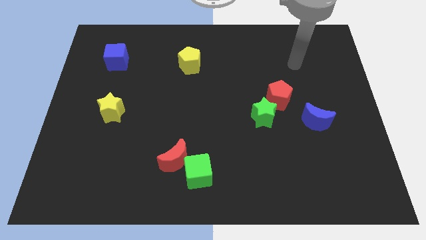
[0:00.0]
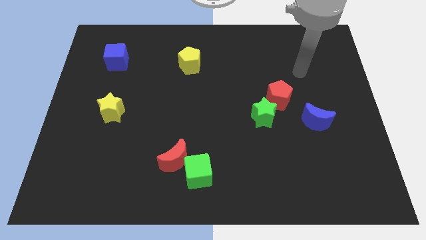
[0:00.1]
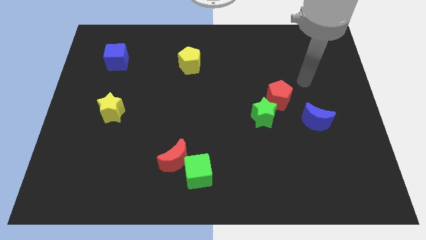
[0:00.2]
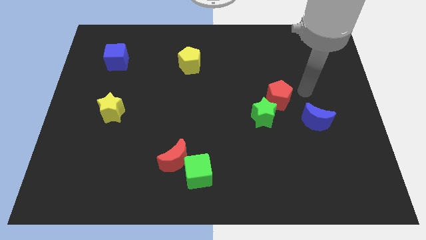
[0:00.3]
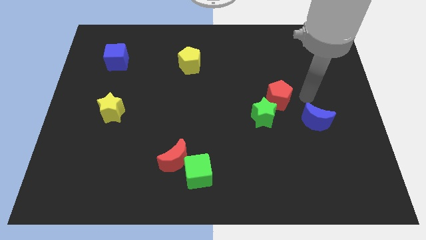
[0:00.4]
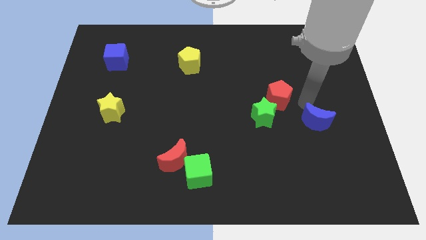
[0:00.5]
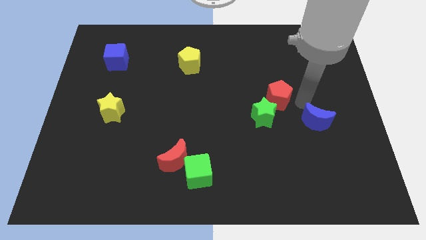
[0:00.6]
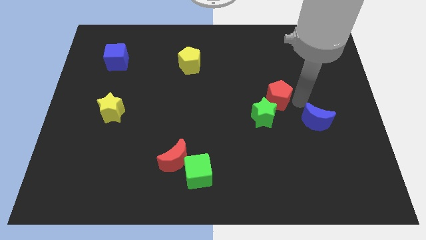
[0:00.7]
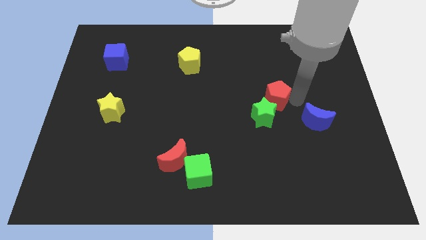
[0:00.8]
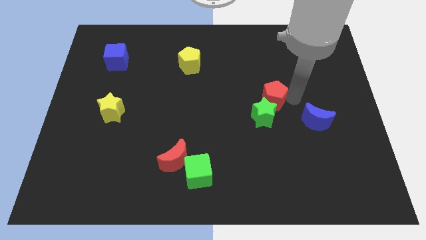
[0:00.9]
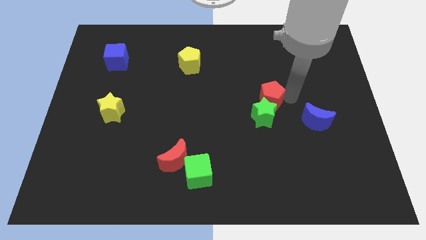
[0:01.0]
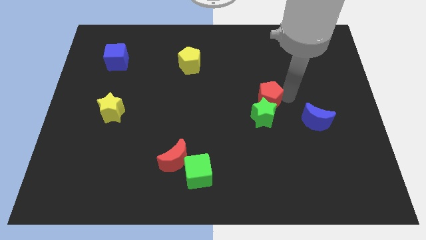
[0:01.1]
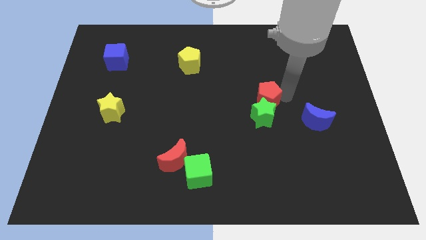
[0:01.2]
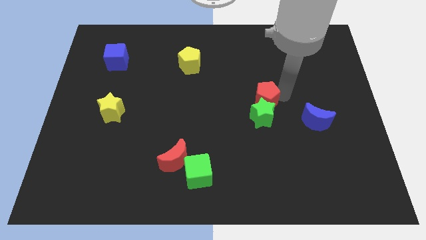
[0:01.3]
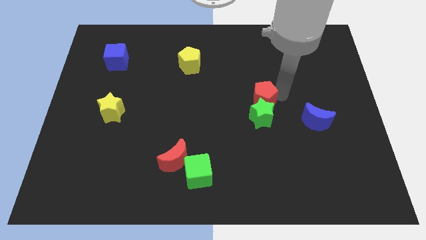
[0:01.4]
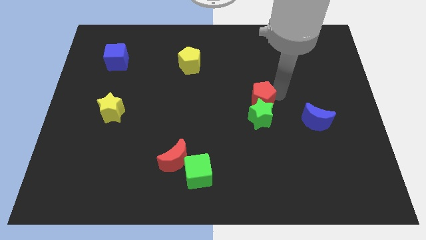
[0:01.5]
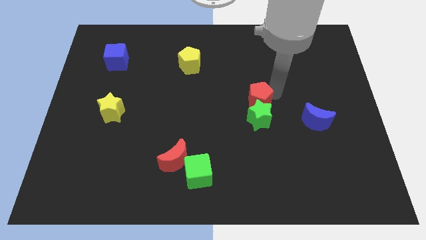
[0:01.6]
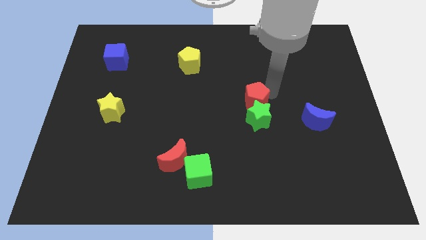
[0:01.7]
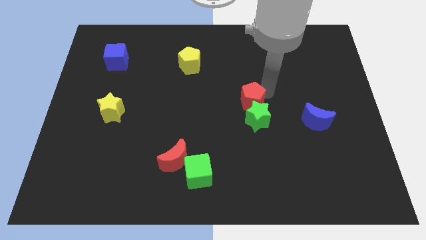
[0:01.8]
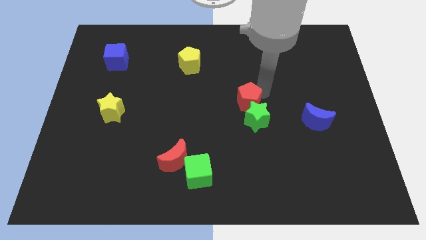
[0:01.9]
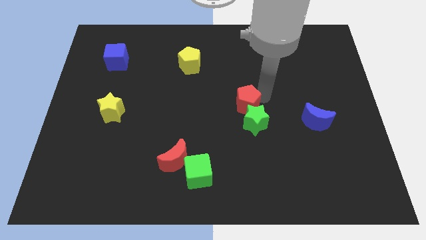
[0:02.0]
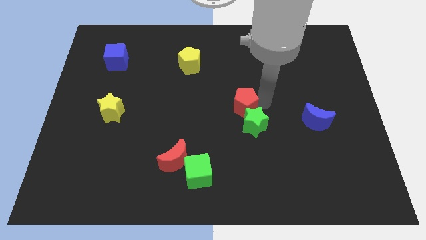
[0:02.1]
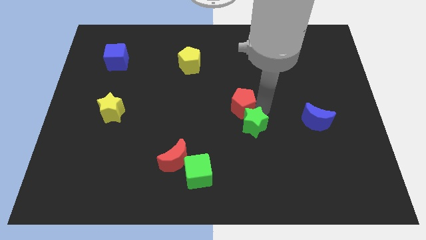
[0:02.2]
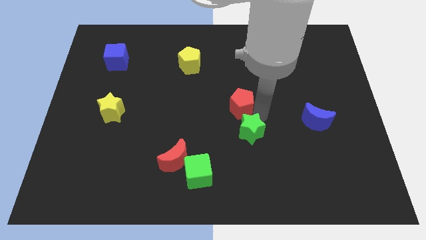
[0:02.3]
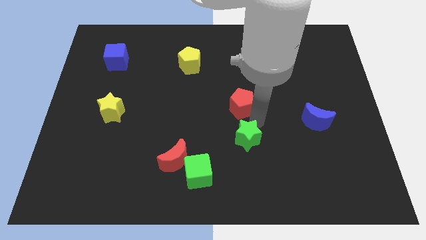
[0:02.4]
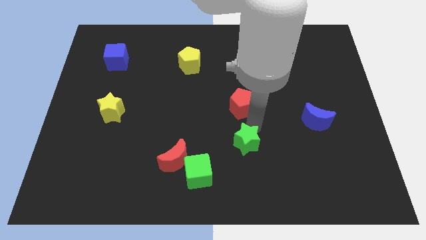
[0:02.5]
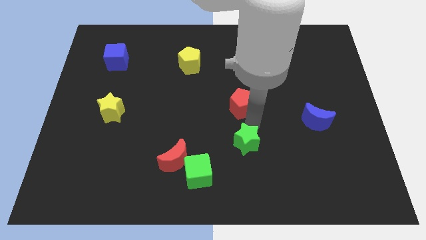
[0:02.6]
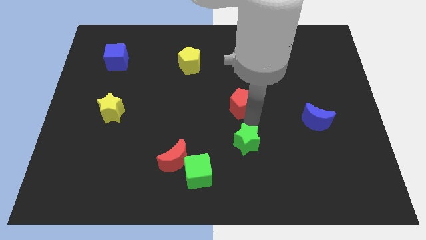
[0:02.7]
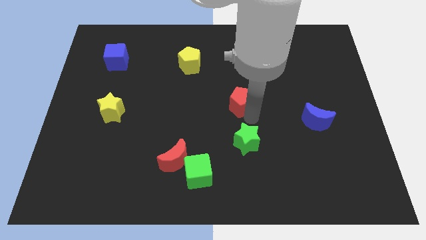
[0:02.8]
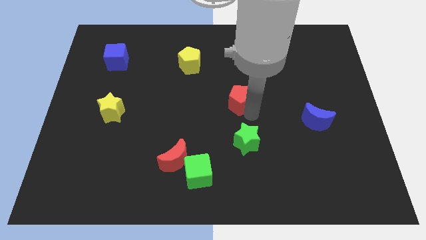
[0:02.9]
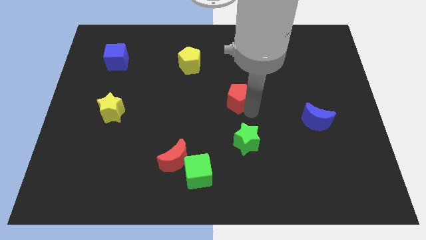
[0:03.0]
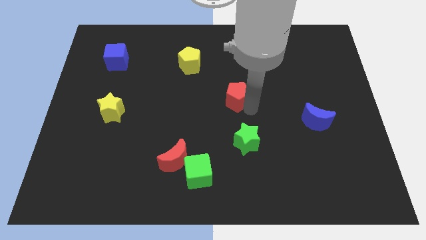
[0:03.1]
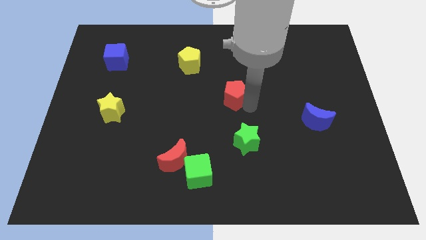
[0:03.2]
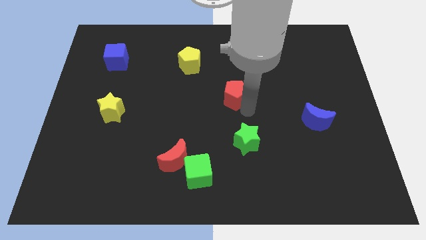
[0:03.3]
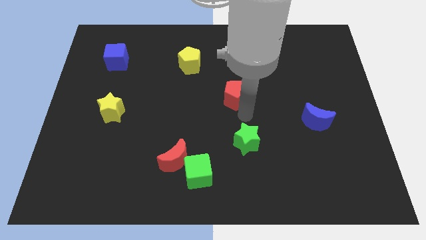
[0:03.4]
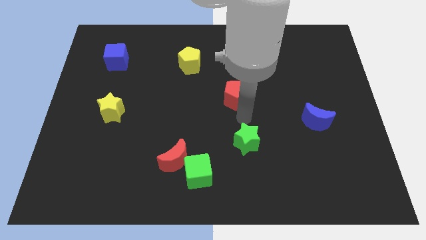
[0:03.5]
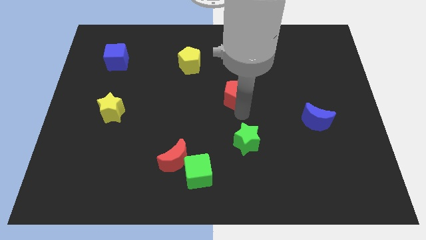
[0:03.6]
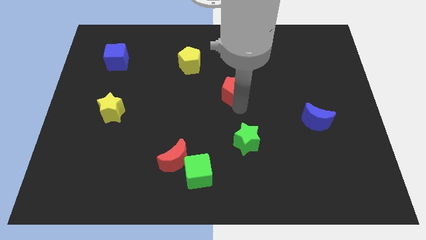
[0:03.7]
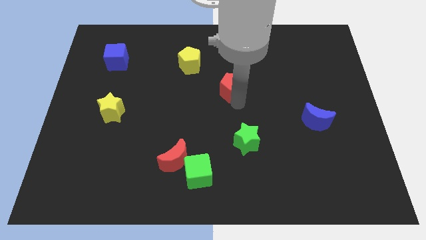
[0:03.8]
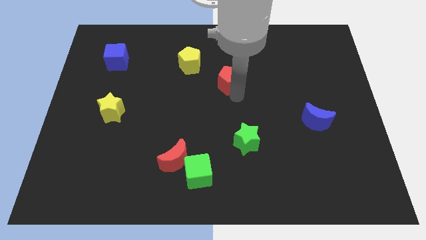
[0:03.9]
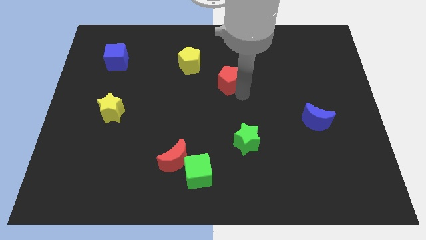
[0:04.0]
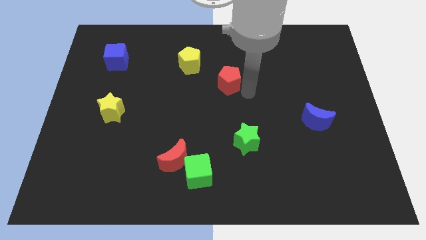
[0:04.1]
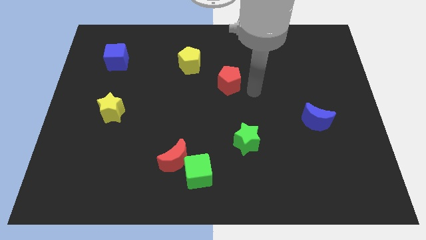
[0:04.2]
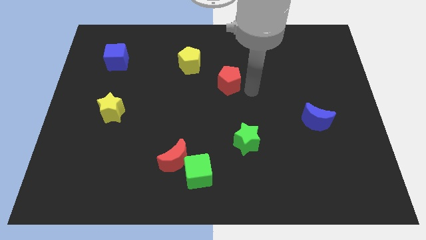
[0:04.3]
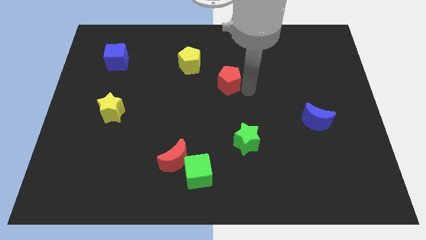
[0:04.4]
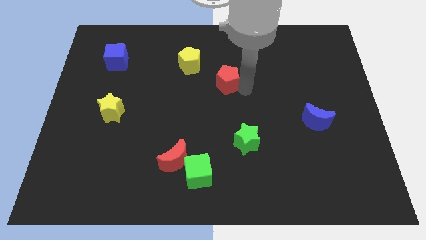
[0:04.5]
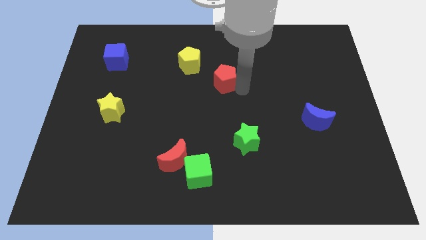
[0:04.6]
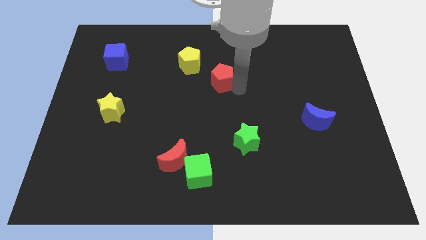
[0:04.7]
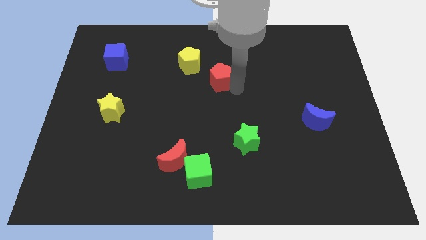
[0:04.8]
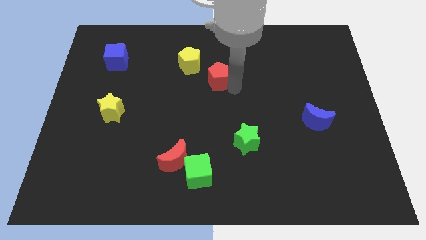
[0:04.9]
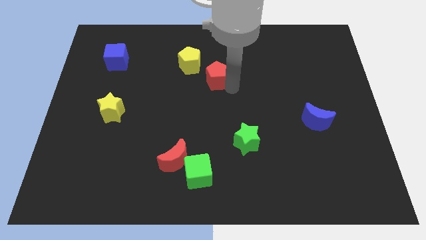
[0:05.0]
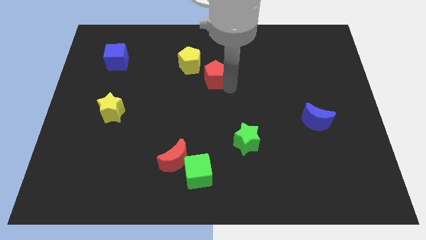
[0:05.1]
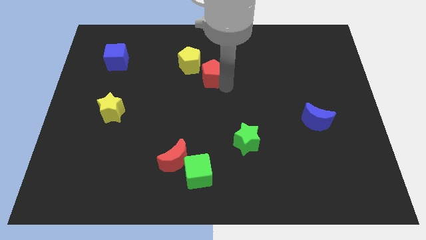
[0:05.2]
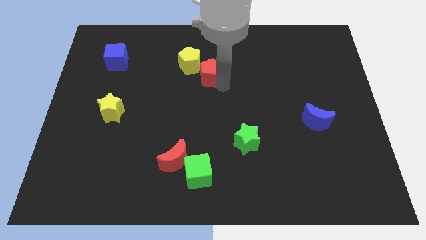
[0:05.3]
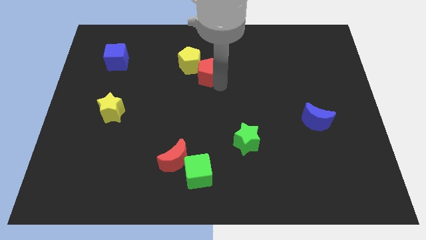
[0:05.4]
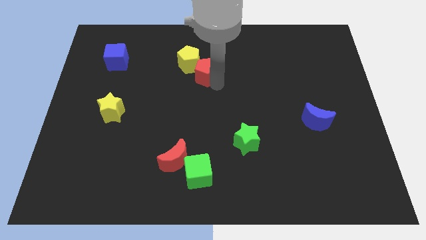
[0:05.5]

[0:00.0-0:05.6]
slide the red pentagon close to the yellow pentagon

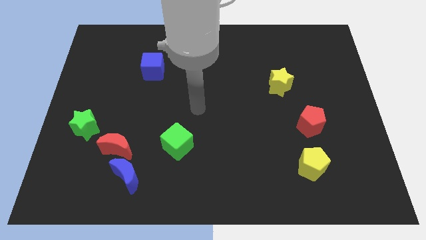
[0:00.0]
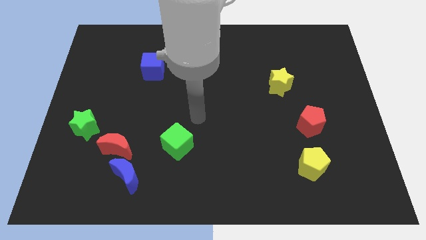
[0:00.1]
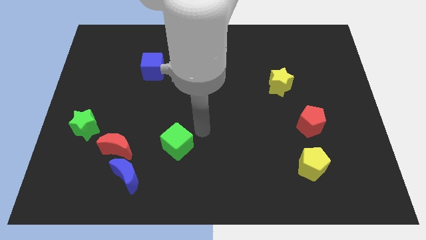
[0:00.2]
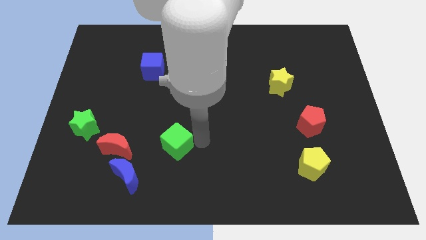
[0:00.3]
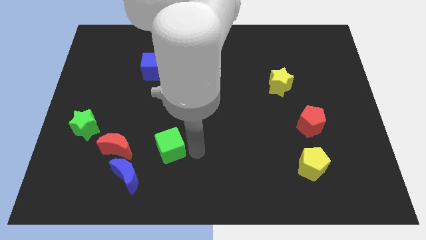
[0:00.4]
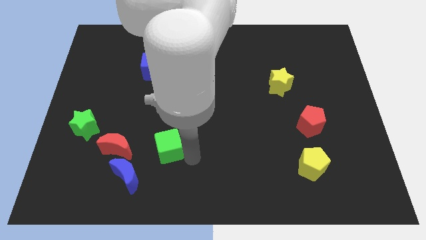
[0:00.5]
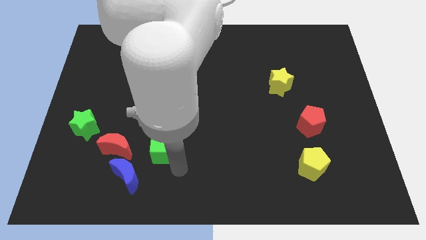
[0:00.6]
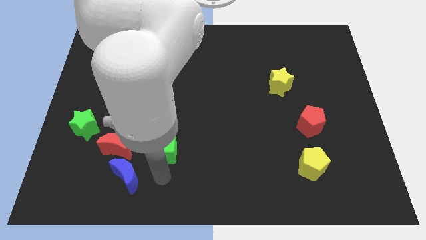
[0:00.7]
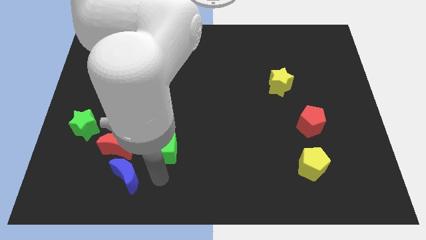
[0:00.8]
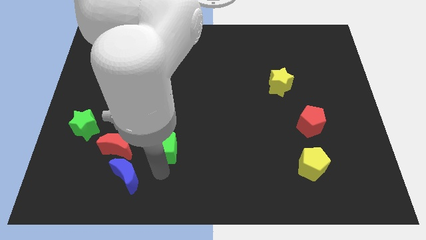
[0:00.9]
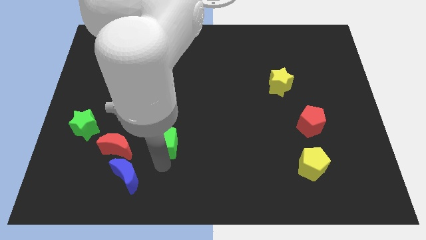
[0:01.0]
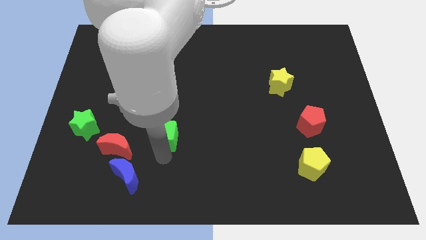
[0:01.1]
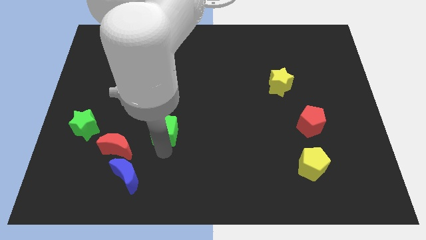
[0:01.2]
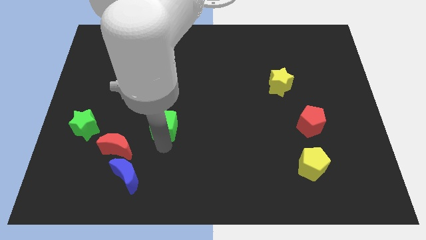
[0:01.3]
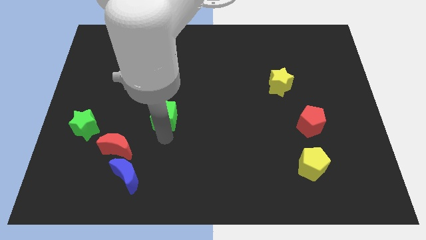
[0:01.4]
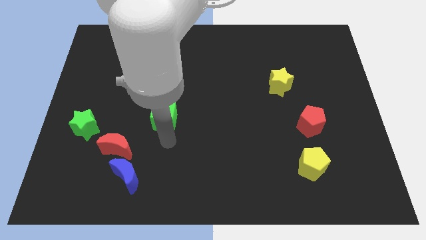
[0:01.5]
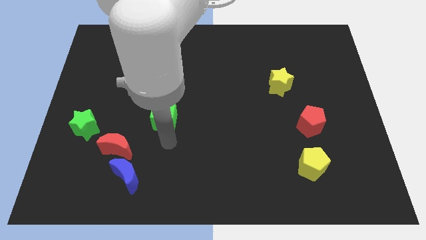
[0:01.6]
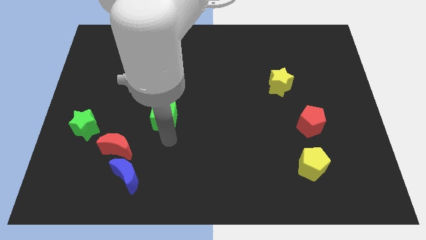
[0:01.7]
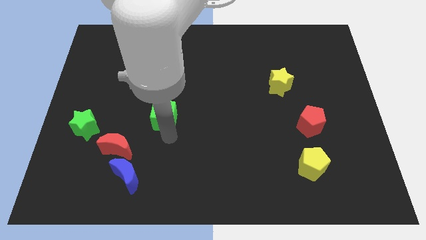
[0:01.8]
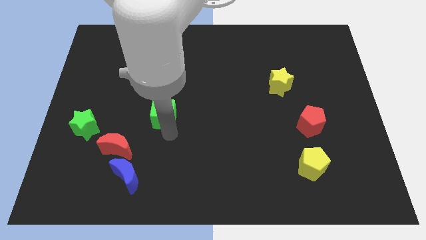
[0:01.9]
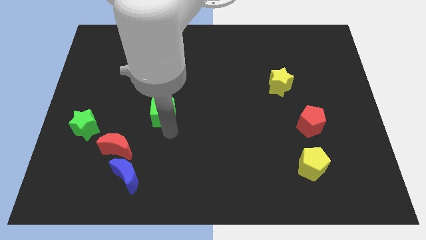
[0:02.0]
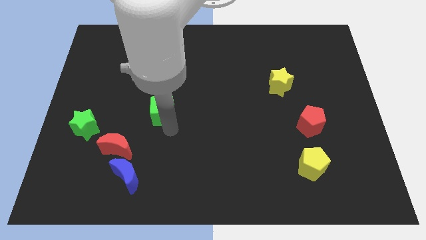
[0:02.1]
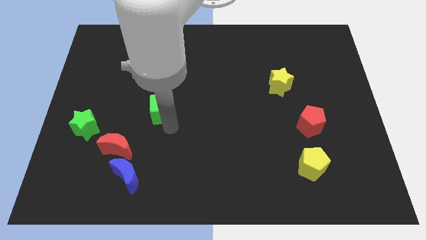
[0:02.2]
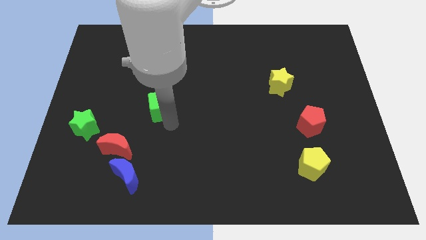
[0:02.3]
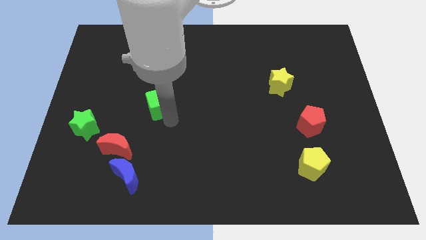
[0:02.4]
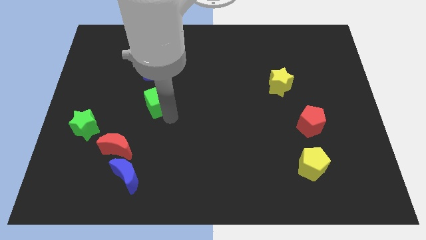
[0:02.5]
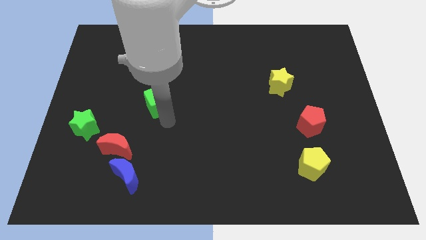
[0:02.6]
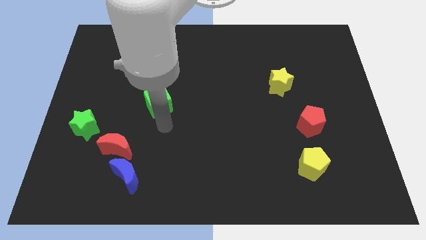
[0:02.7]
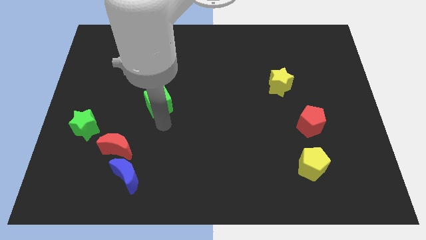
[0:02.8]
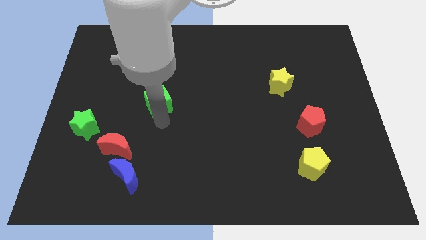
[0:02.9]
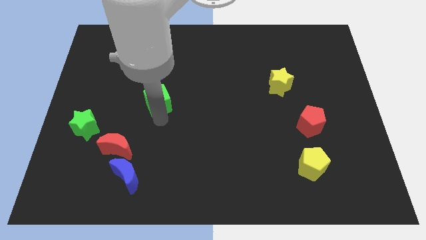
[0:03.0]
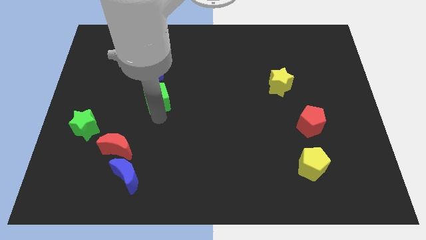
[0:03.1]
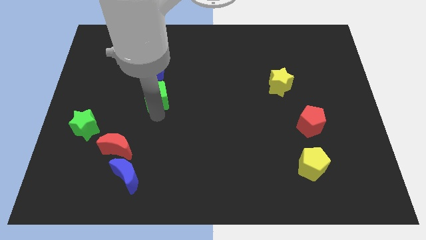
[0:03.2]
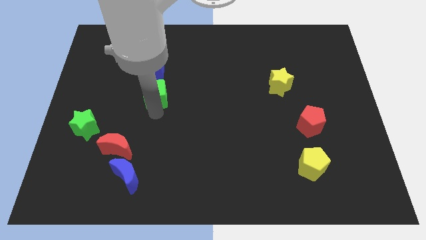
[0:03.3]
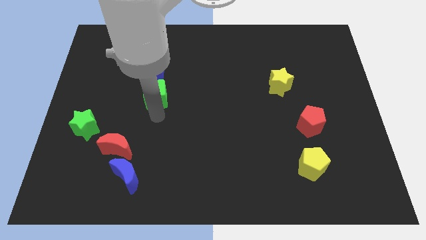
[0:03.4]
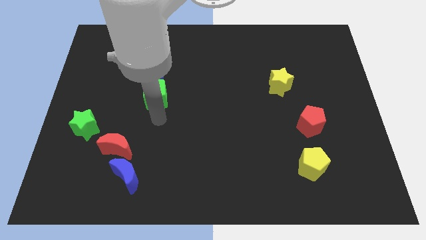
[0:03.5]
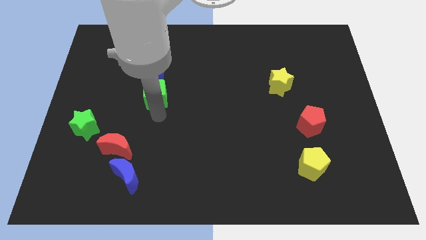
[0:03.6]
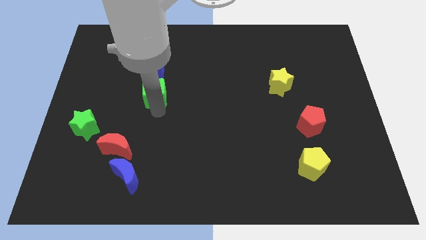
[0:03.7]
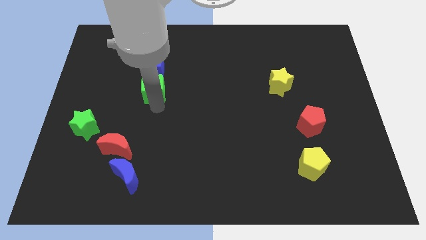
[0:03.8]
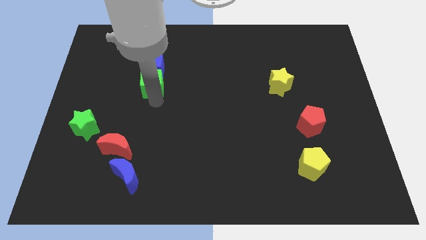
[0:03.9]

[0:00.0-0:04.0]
push the green cube towards the blue cube
